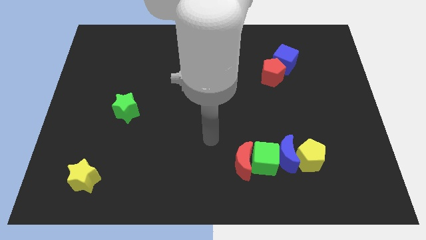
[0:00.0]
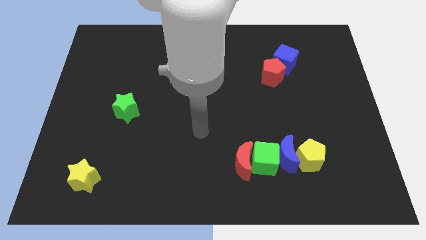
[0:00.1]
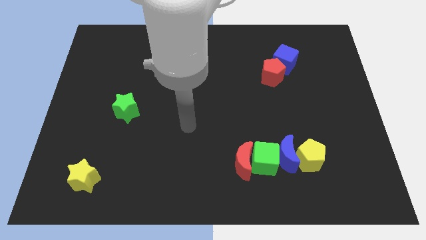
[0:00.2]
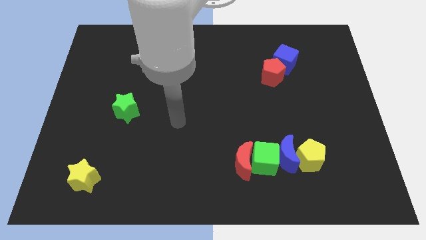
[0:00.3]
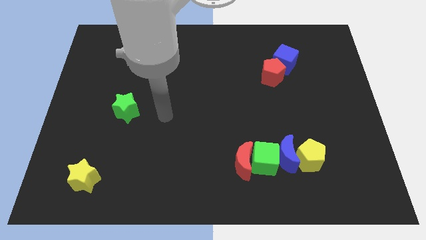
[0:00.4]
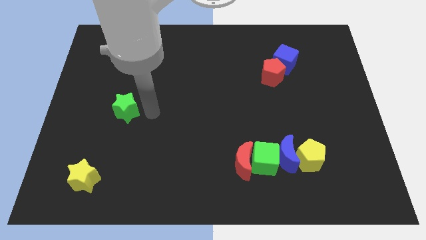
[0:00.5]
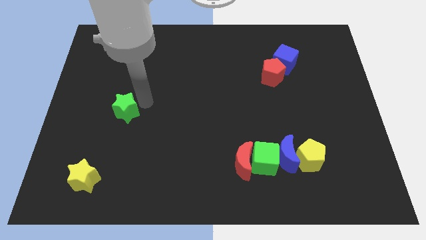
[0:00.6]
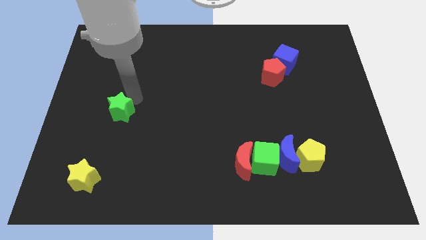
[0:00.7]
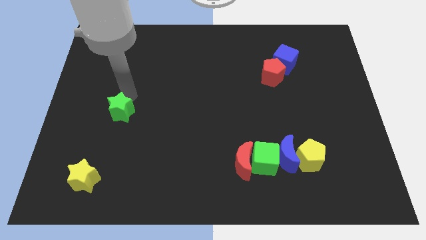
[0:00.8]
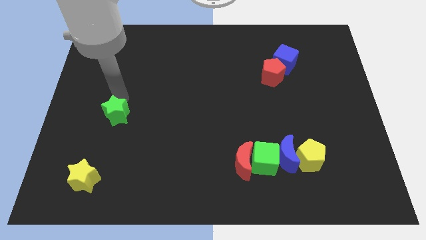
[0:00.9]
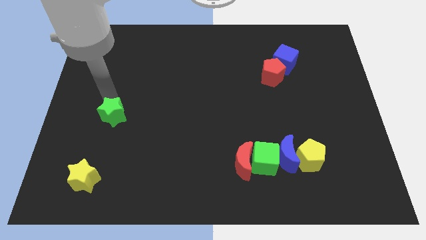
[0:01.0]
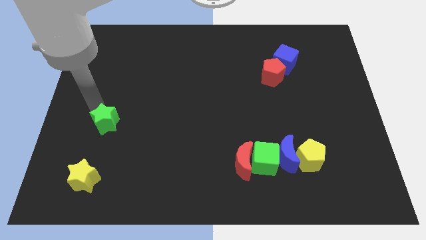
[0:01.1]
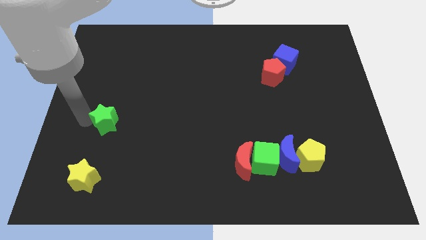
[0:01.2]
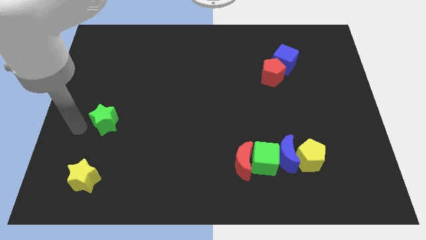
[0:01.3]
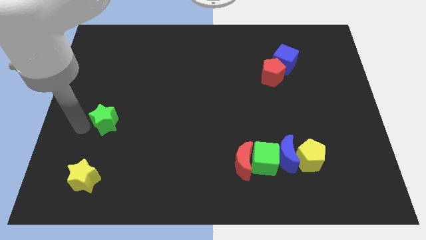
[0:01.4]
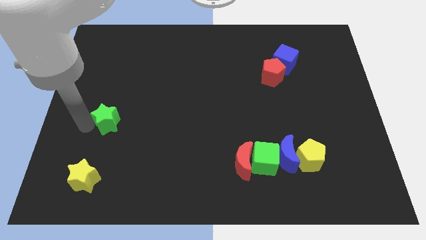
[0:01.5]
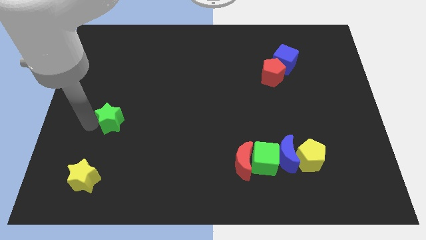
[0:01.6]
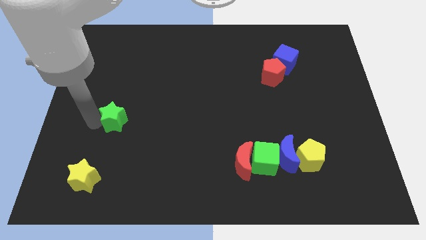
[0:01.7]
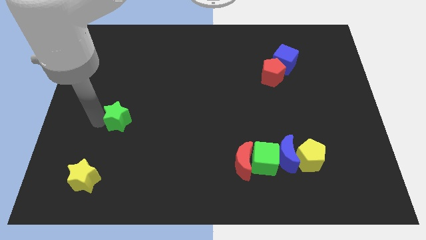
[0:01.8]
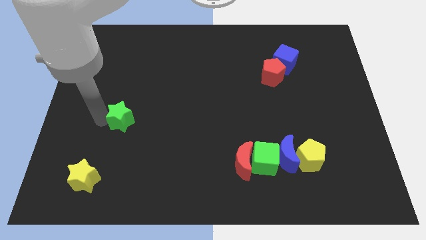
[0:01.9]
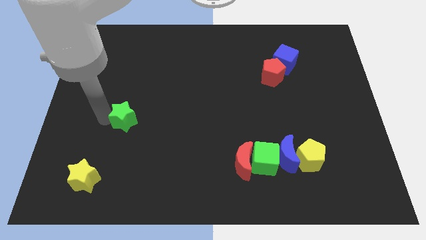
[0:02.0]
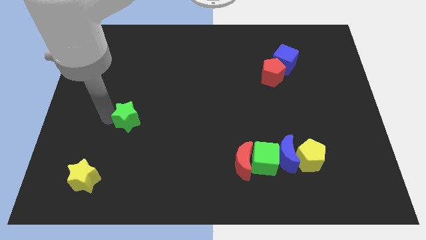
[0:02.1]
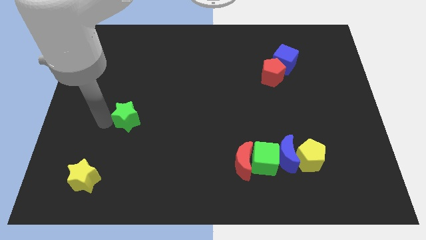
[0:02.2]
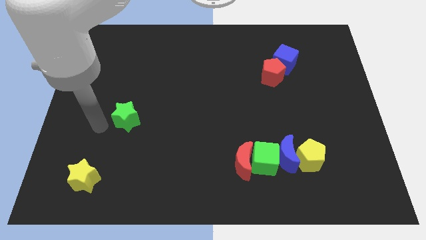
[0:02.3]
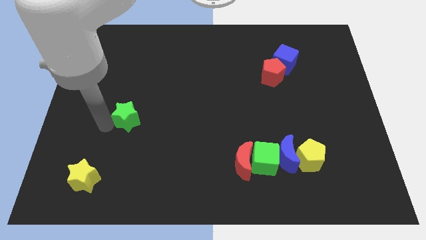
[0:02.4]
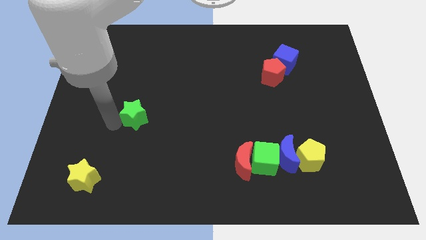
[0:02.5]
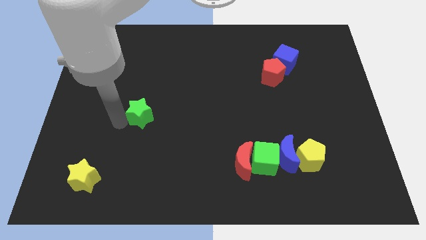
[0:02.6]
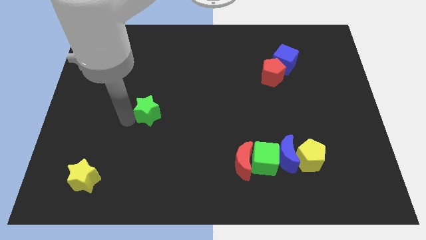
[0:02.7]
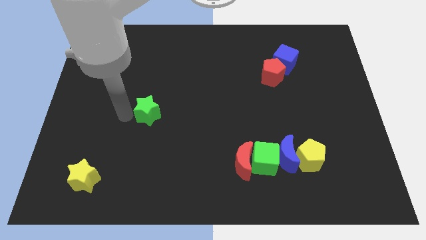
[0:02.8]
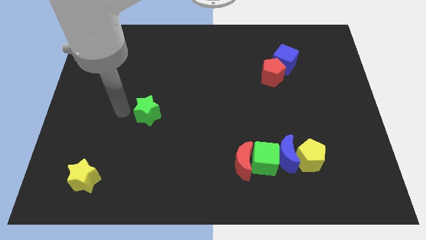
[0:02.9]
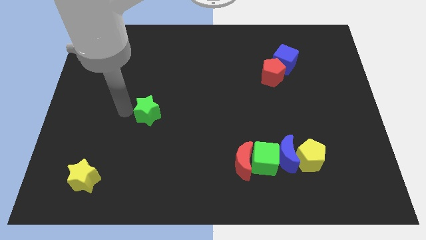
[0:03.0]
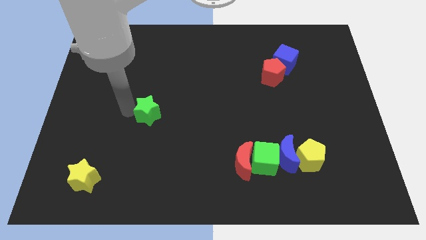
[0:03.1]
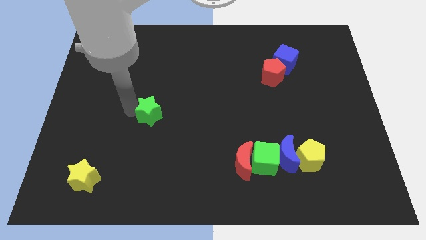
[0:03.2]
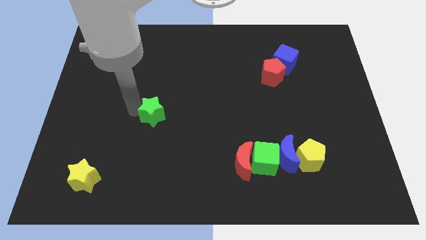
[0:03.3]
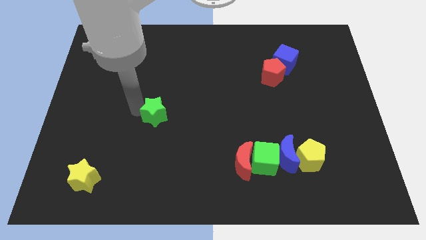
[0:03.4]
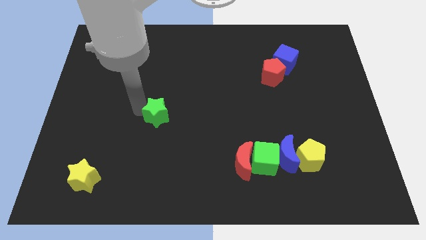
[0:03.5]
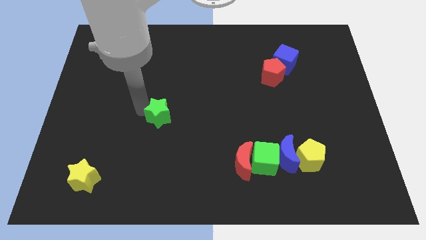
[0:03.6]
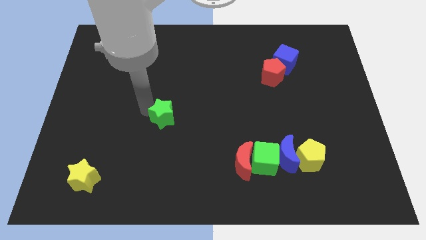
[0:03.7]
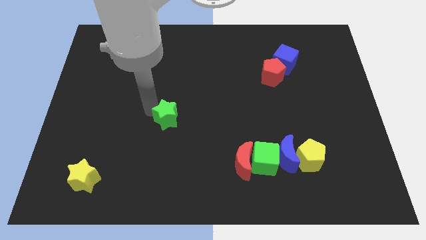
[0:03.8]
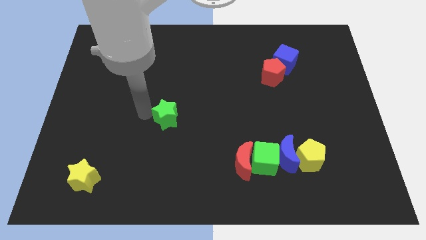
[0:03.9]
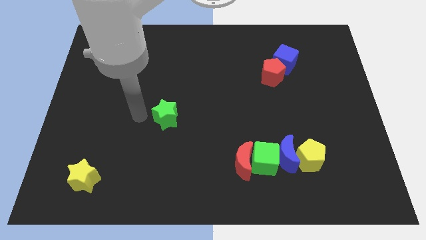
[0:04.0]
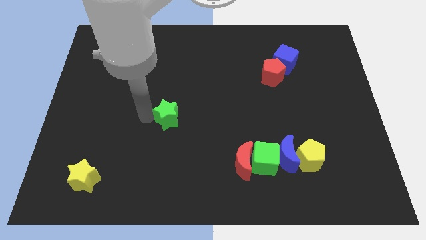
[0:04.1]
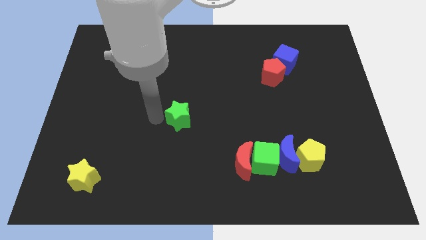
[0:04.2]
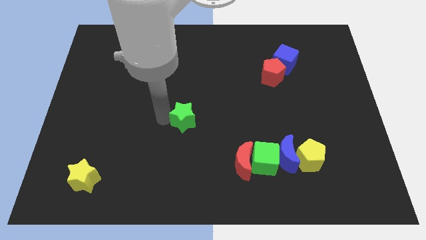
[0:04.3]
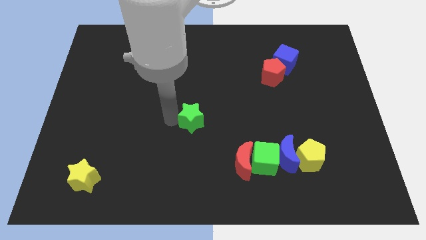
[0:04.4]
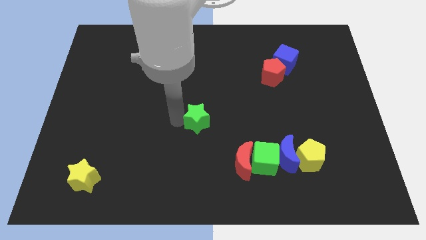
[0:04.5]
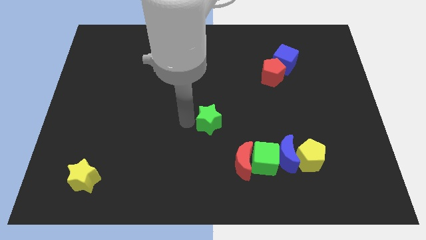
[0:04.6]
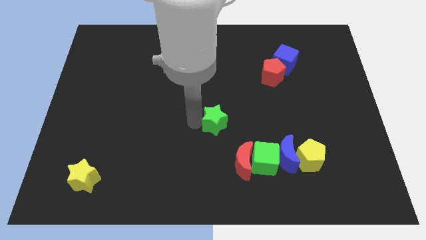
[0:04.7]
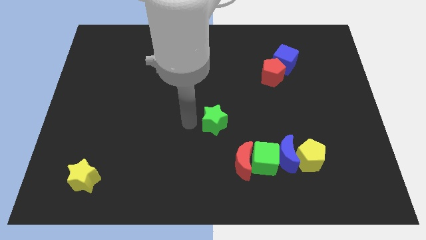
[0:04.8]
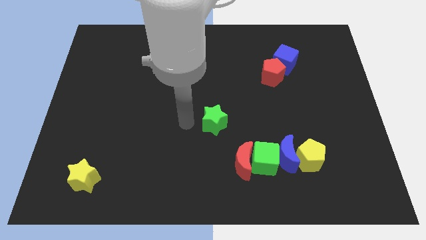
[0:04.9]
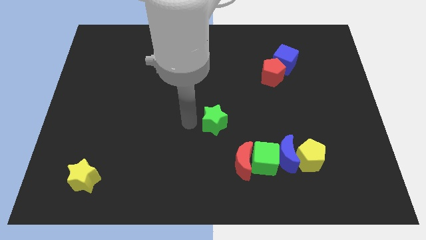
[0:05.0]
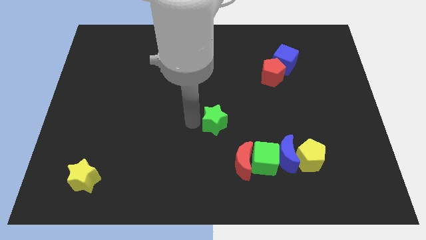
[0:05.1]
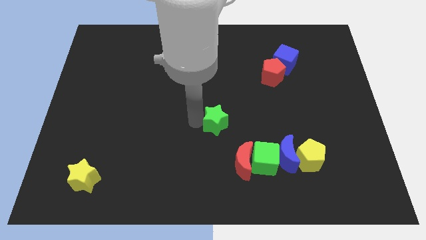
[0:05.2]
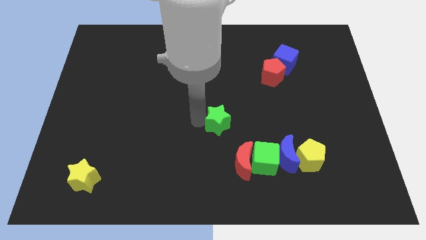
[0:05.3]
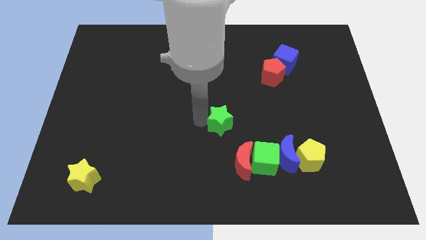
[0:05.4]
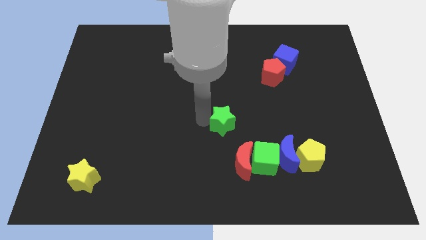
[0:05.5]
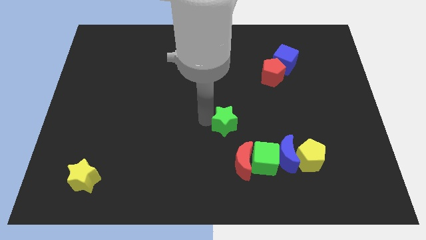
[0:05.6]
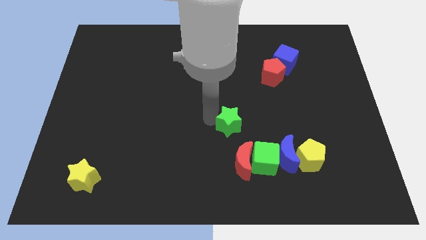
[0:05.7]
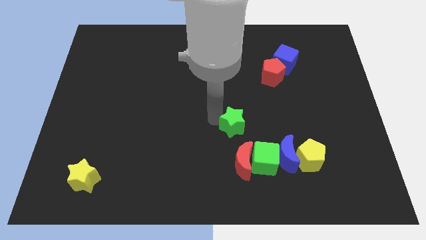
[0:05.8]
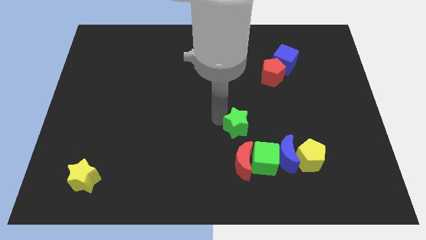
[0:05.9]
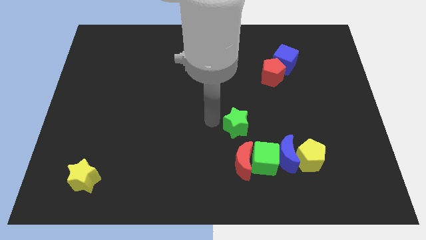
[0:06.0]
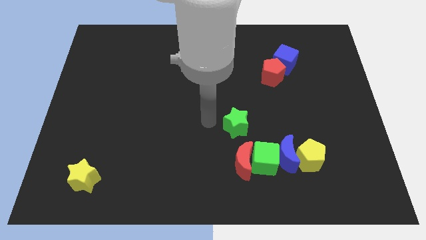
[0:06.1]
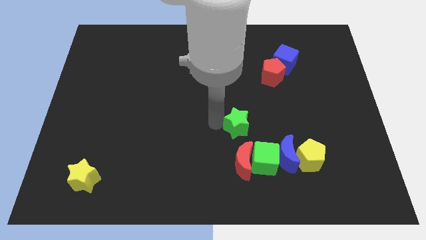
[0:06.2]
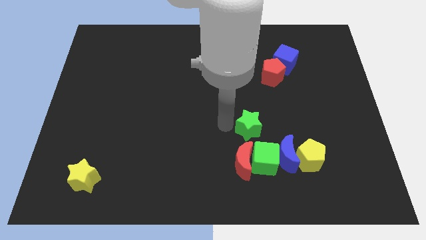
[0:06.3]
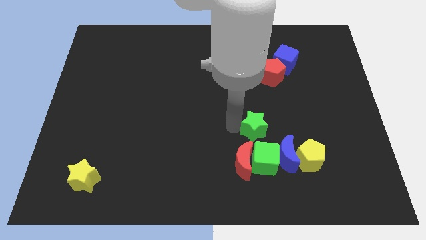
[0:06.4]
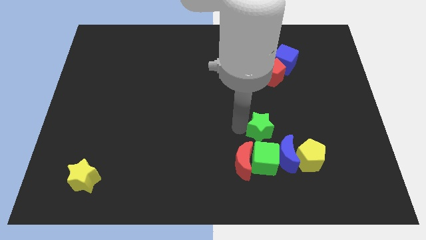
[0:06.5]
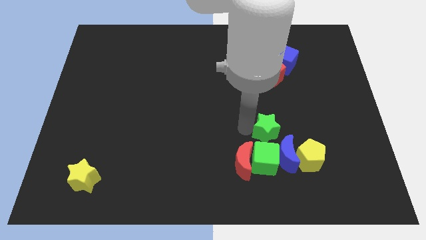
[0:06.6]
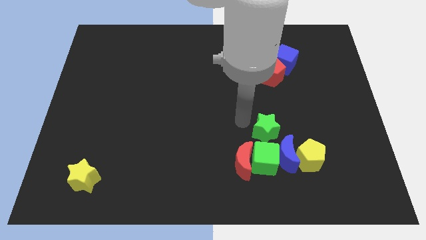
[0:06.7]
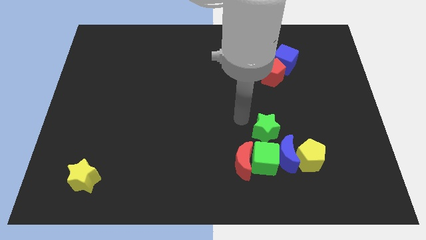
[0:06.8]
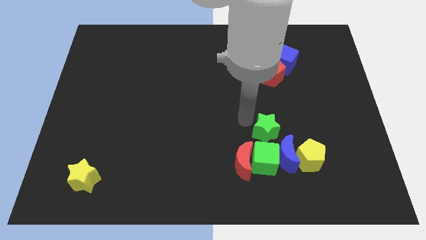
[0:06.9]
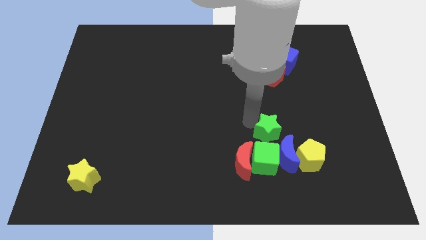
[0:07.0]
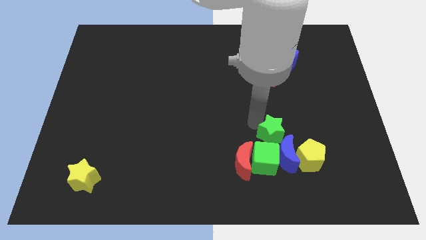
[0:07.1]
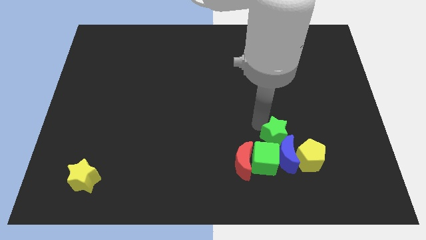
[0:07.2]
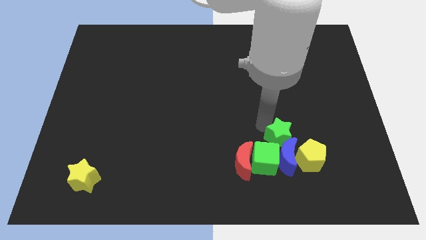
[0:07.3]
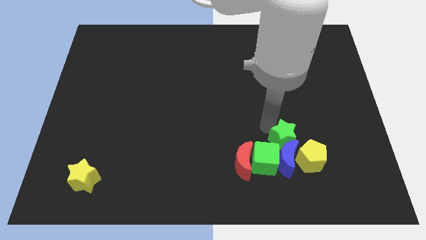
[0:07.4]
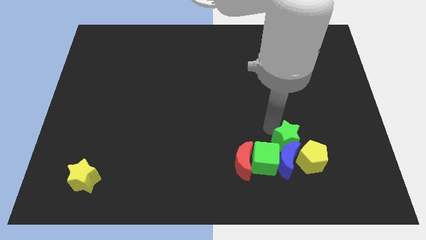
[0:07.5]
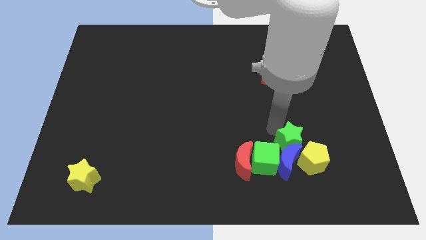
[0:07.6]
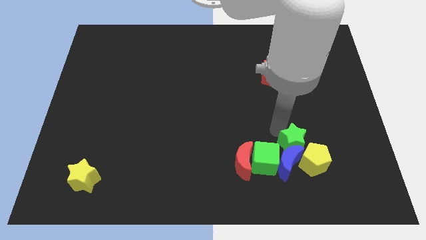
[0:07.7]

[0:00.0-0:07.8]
put the green star next to the yellow pentagon

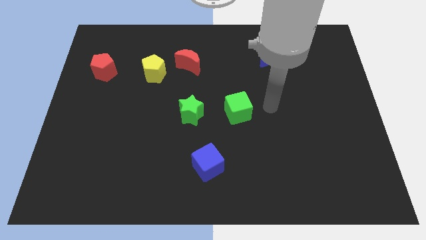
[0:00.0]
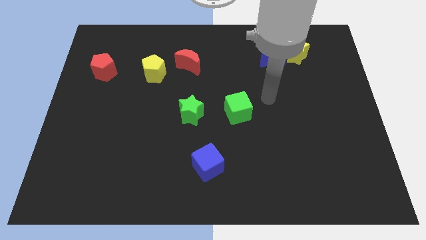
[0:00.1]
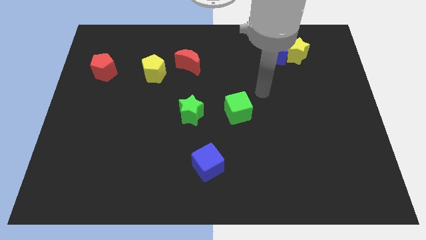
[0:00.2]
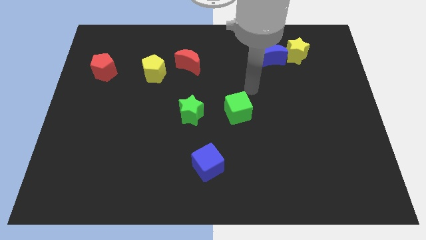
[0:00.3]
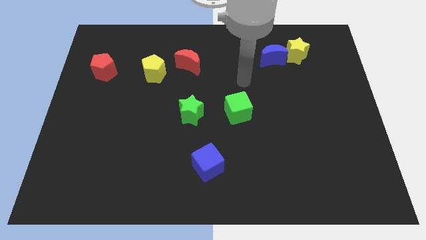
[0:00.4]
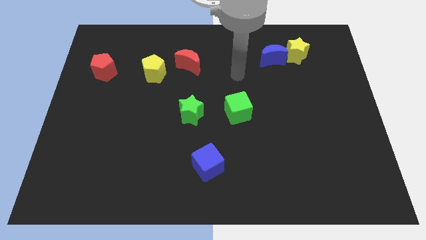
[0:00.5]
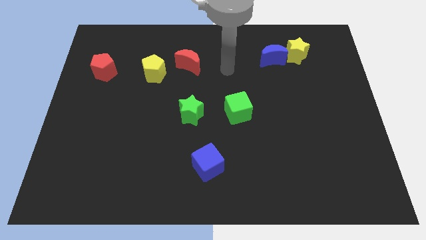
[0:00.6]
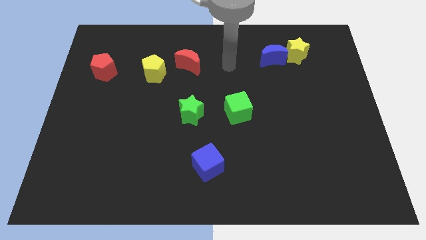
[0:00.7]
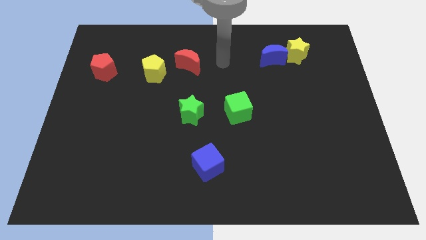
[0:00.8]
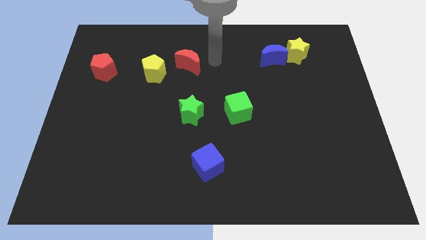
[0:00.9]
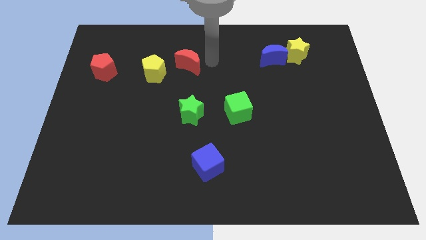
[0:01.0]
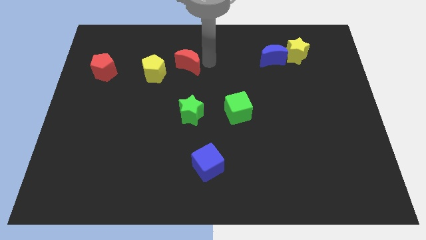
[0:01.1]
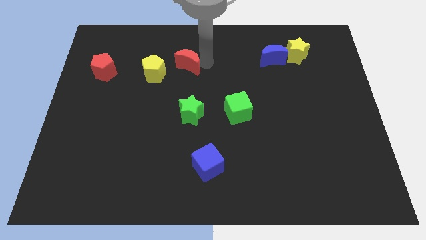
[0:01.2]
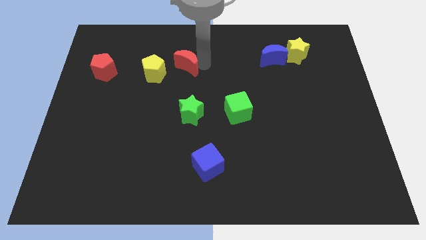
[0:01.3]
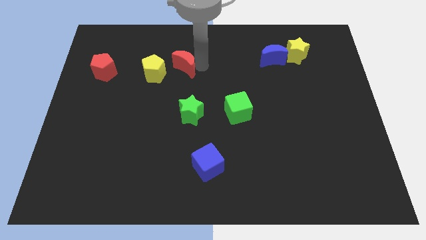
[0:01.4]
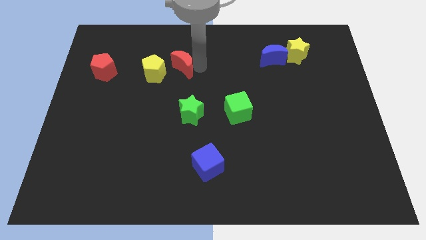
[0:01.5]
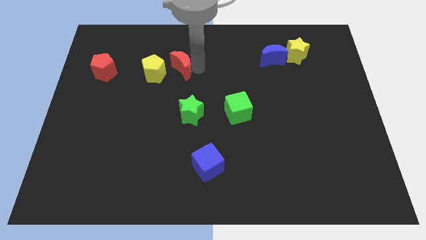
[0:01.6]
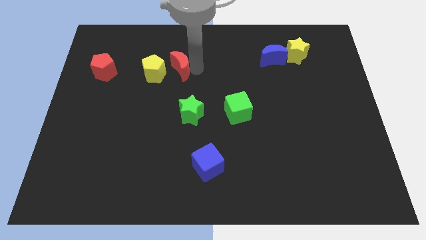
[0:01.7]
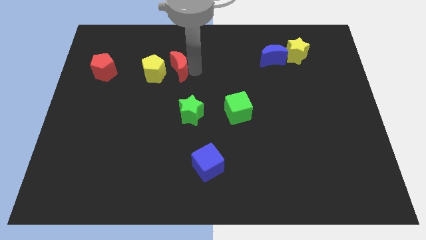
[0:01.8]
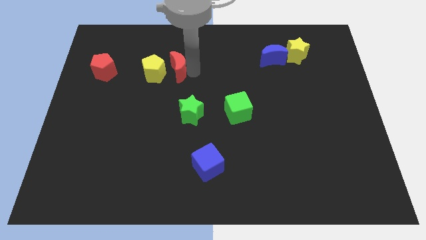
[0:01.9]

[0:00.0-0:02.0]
push the red moon next to the yellow pentagon
